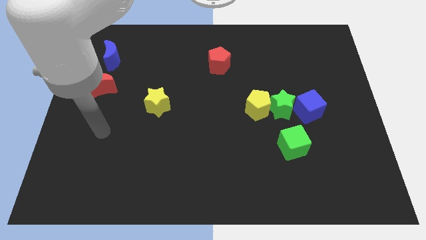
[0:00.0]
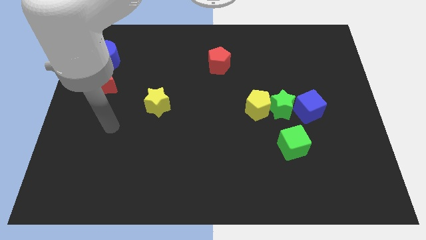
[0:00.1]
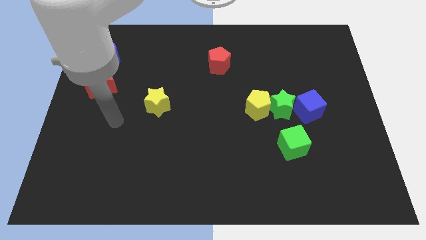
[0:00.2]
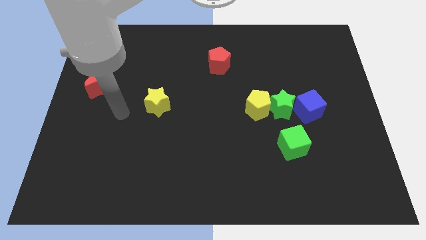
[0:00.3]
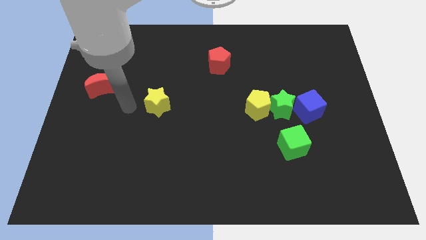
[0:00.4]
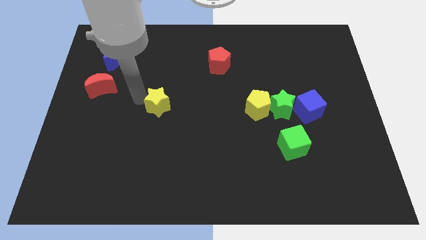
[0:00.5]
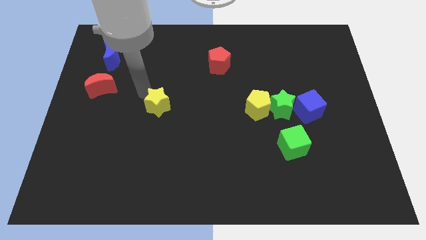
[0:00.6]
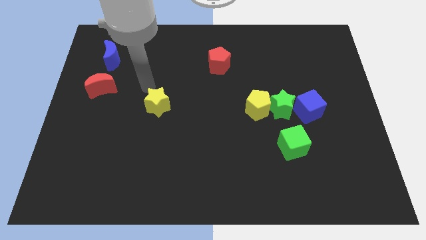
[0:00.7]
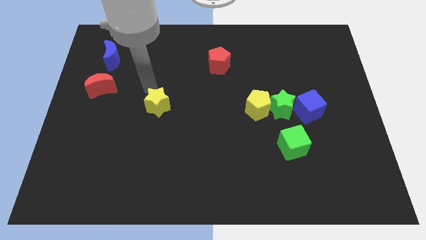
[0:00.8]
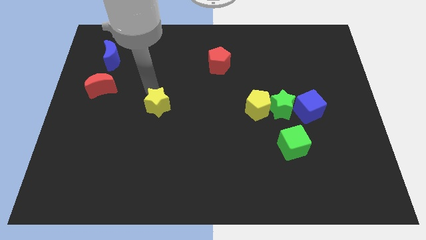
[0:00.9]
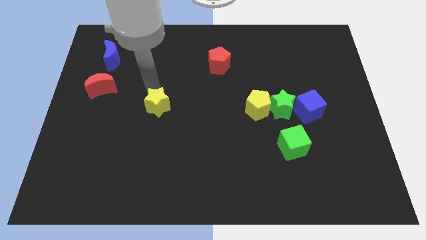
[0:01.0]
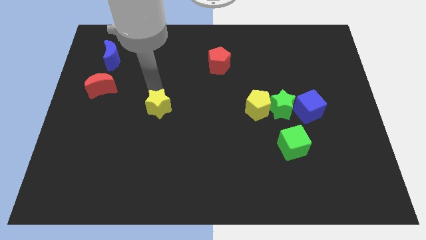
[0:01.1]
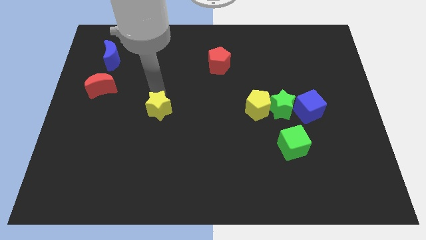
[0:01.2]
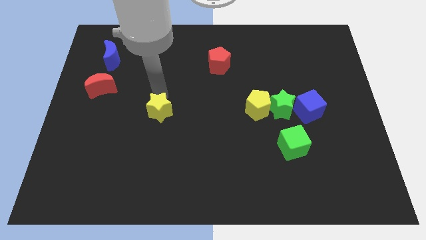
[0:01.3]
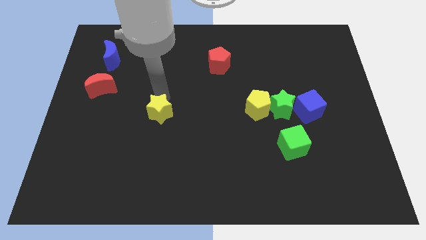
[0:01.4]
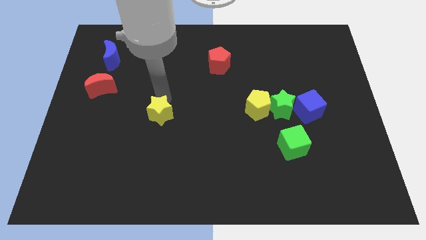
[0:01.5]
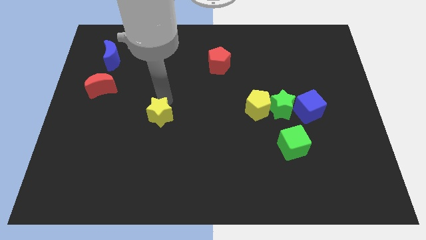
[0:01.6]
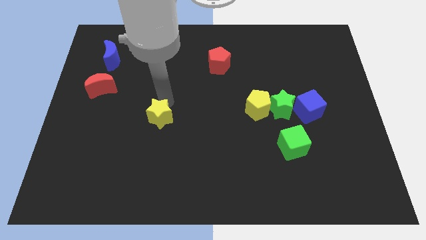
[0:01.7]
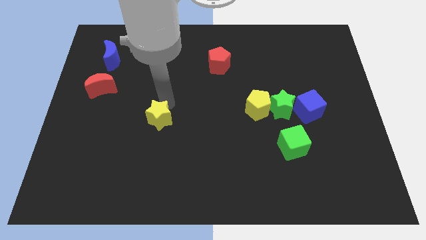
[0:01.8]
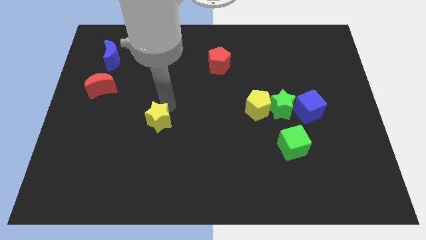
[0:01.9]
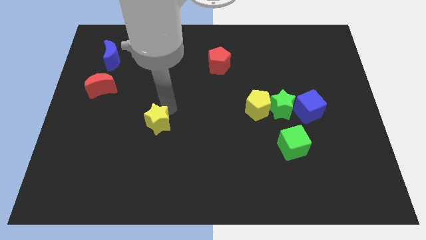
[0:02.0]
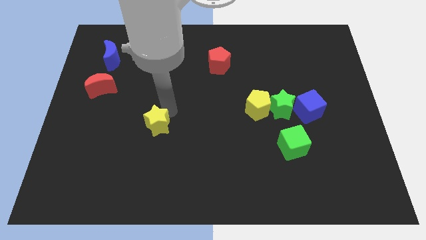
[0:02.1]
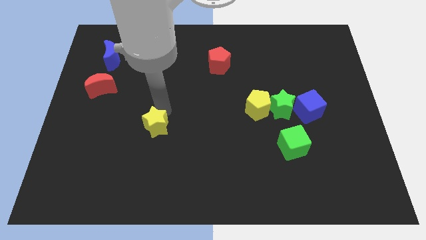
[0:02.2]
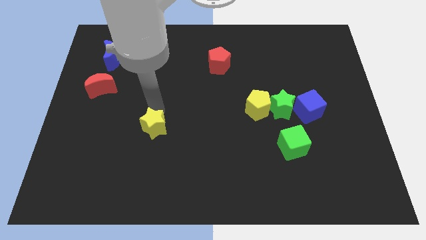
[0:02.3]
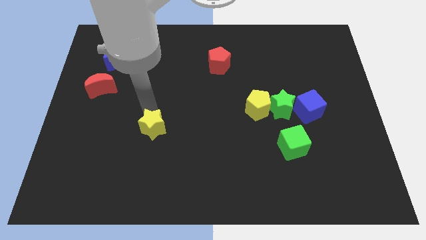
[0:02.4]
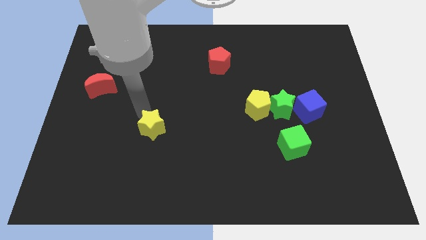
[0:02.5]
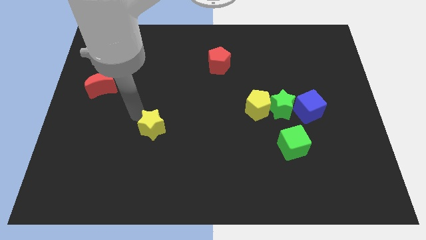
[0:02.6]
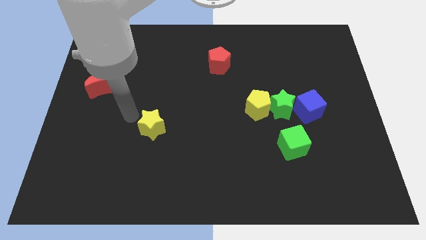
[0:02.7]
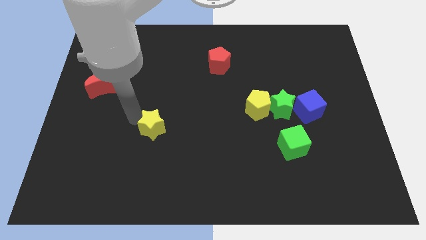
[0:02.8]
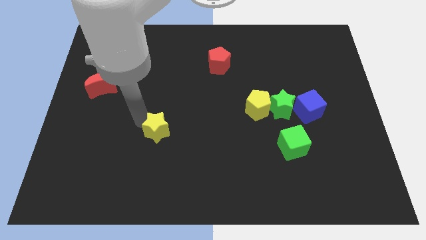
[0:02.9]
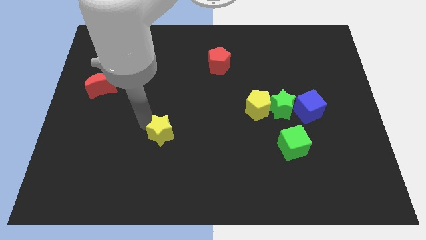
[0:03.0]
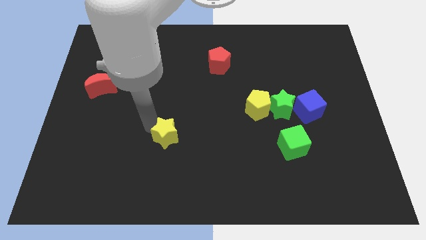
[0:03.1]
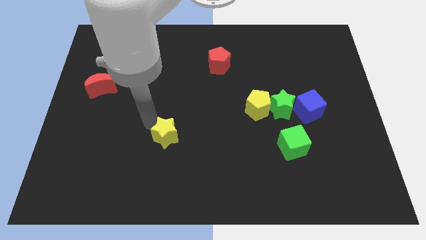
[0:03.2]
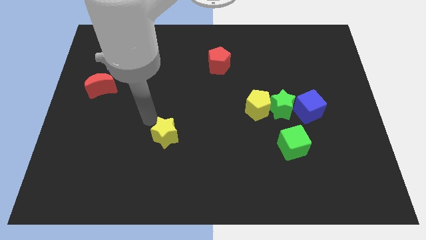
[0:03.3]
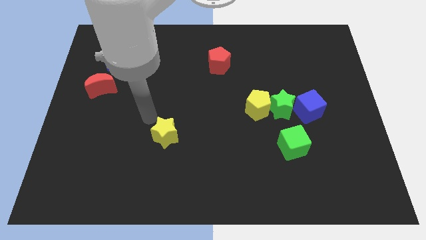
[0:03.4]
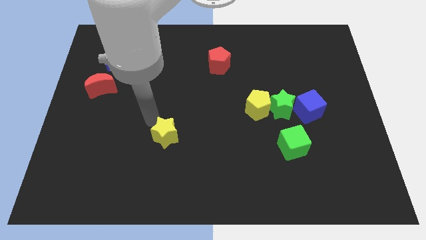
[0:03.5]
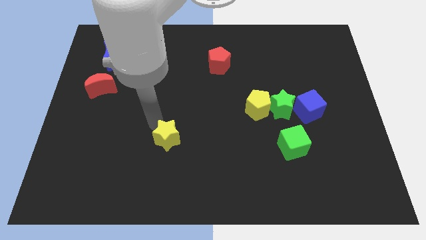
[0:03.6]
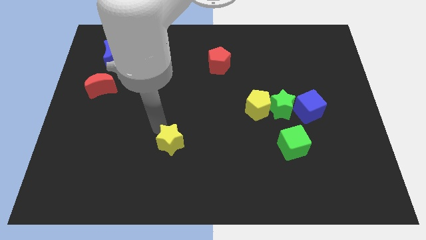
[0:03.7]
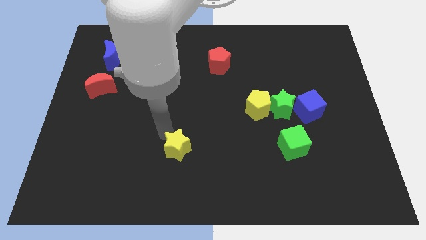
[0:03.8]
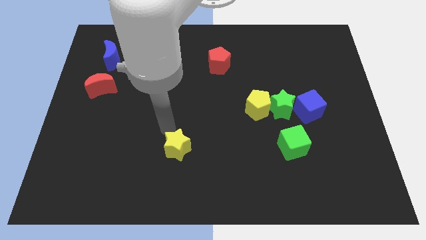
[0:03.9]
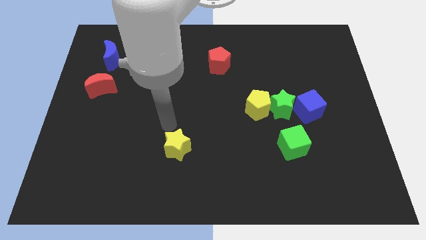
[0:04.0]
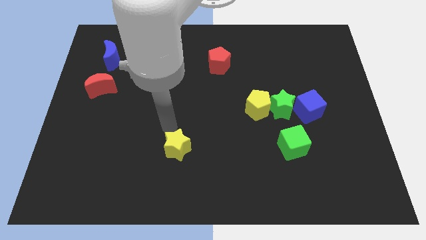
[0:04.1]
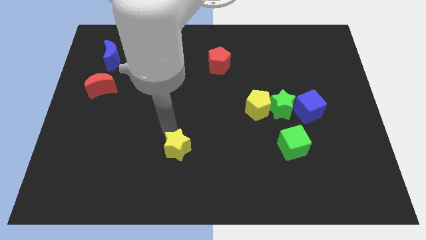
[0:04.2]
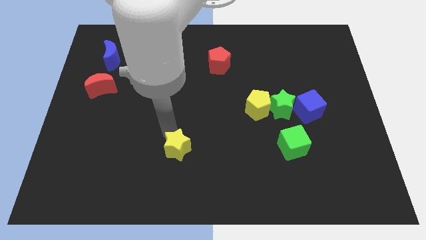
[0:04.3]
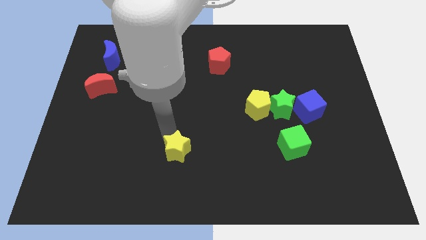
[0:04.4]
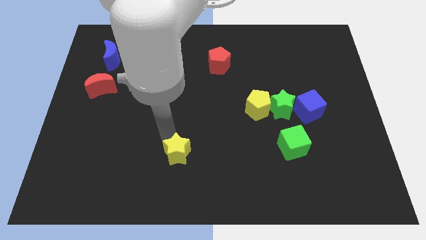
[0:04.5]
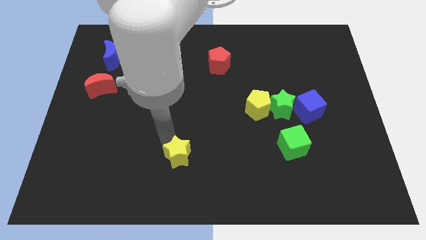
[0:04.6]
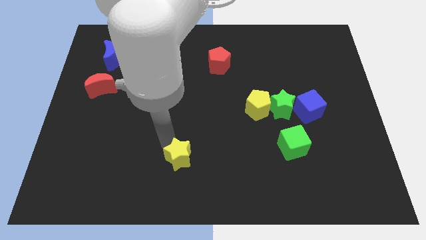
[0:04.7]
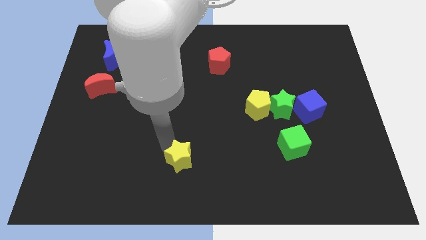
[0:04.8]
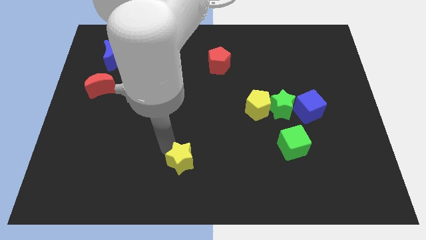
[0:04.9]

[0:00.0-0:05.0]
slide the yellow star to the bottom

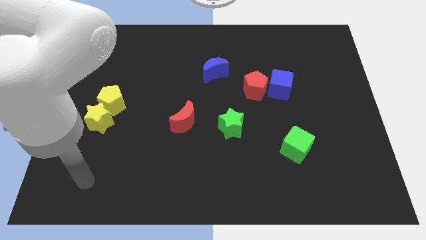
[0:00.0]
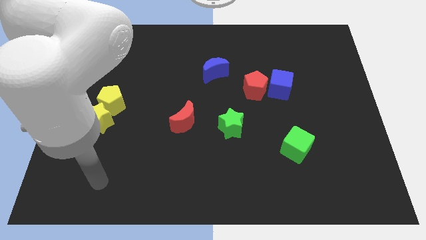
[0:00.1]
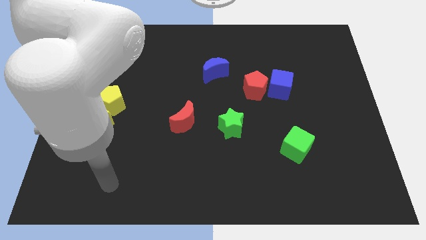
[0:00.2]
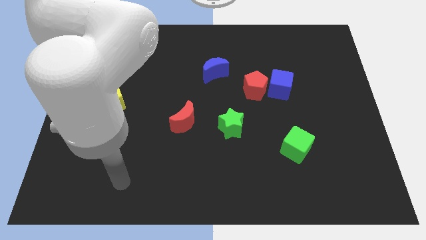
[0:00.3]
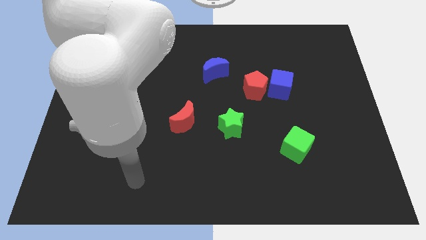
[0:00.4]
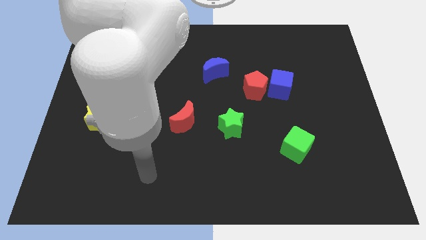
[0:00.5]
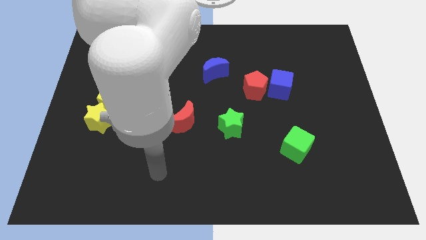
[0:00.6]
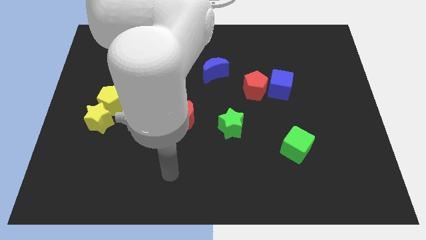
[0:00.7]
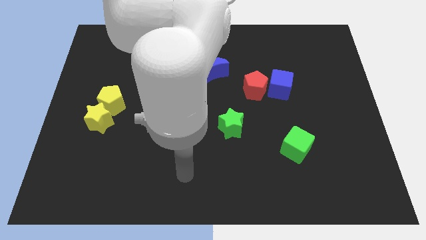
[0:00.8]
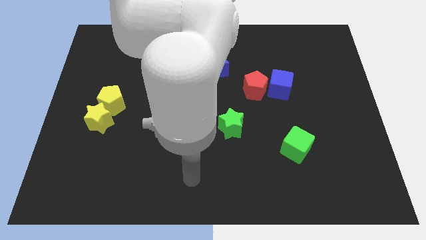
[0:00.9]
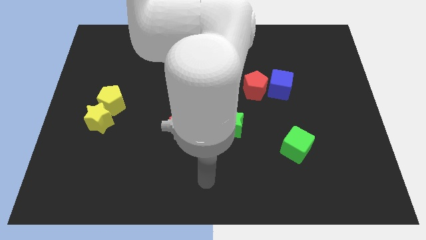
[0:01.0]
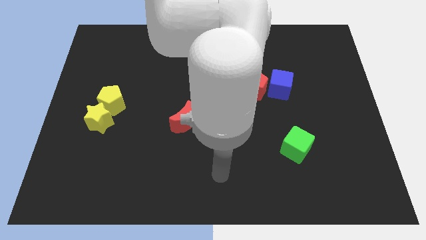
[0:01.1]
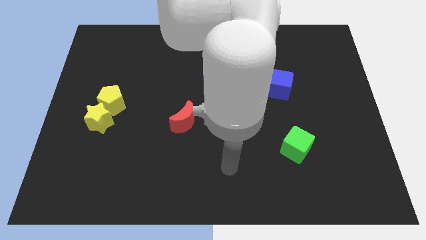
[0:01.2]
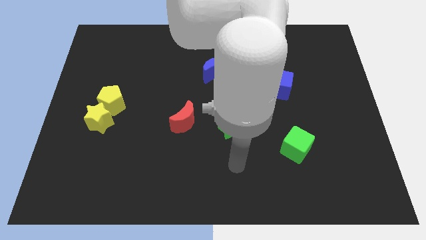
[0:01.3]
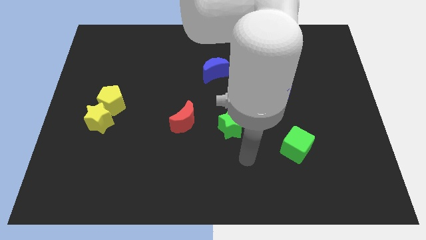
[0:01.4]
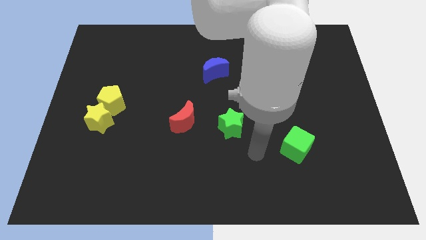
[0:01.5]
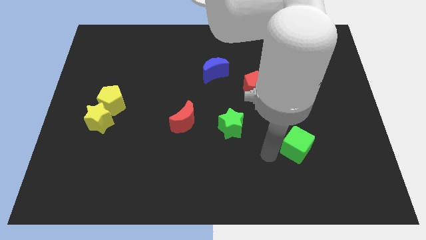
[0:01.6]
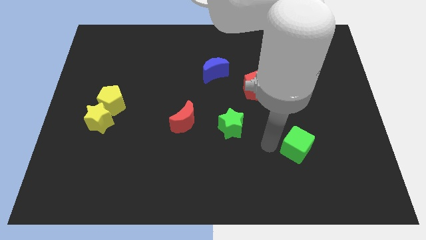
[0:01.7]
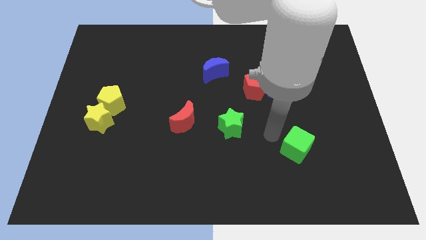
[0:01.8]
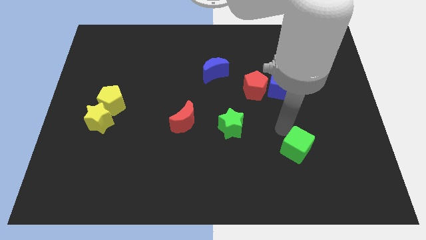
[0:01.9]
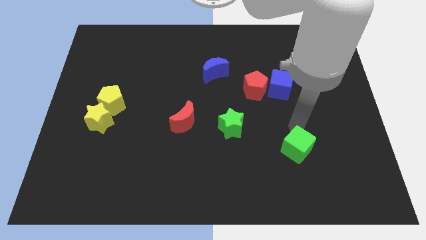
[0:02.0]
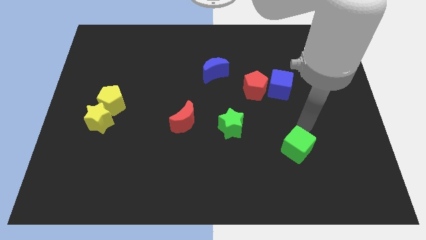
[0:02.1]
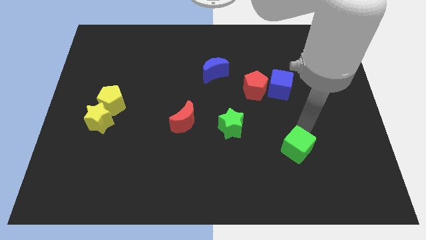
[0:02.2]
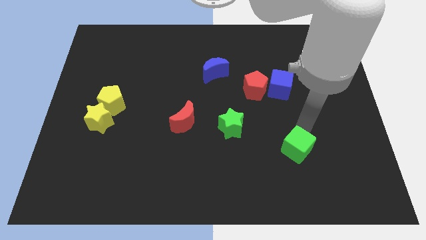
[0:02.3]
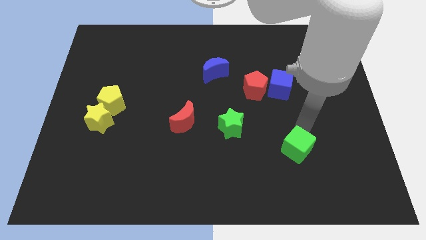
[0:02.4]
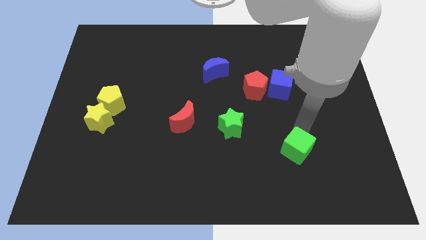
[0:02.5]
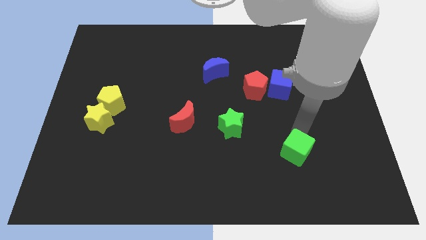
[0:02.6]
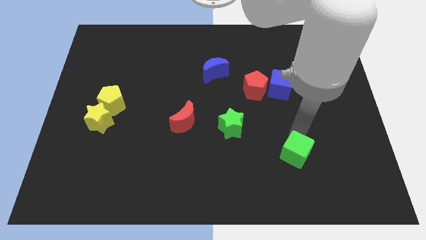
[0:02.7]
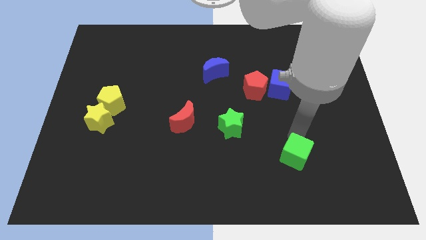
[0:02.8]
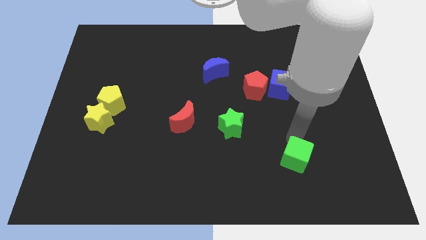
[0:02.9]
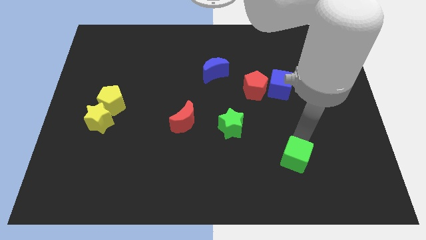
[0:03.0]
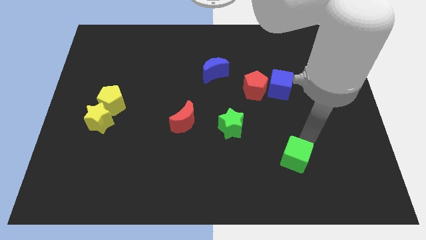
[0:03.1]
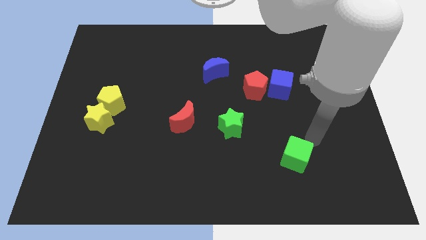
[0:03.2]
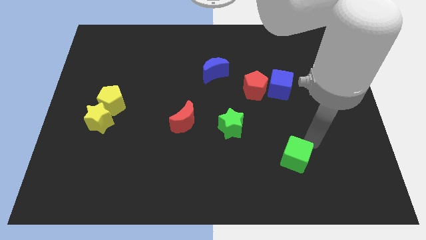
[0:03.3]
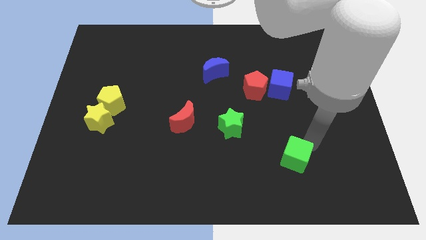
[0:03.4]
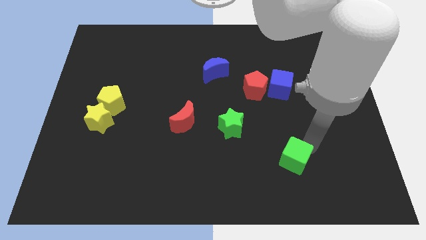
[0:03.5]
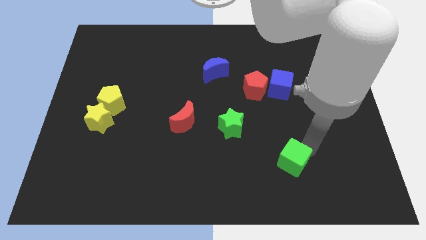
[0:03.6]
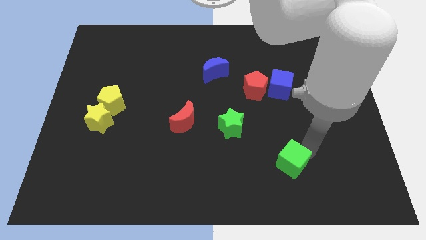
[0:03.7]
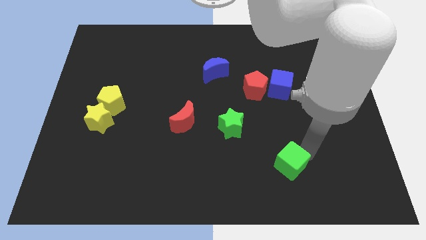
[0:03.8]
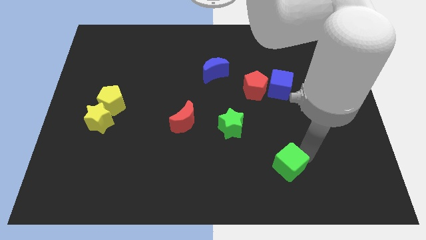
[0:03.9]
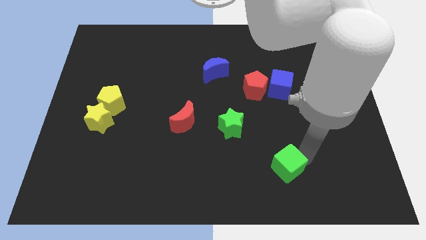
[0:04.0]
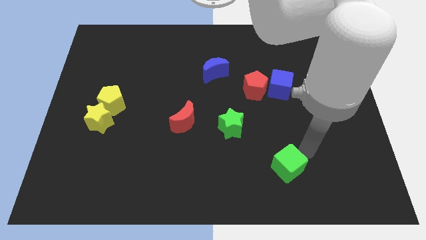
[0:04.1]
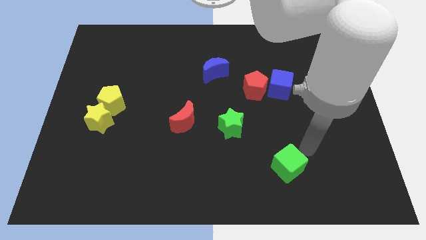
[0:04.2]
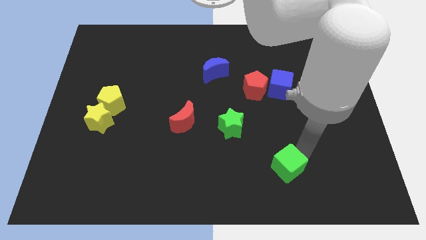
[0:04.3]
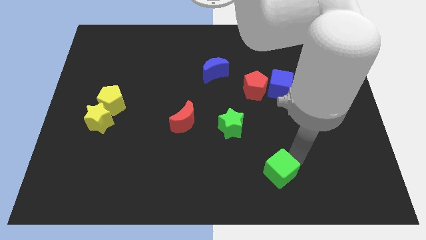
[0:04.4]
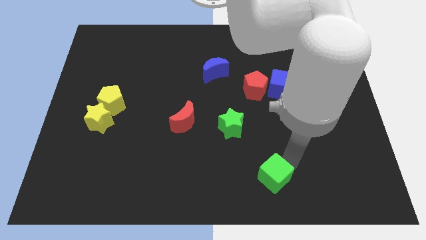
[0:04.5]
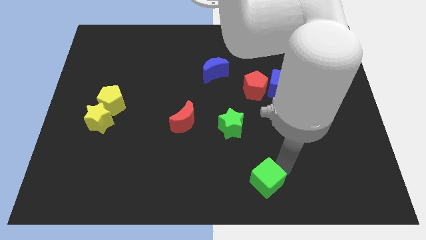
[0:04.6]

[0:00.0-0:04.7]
put the green cube to the bottom side
